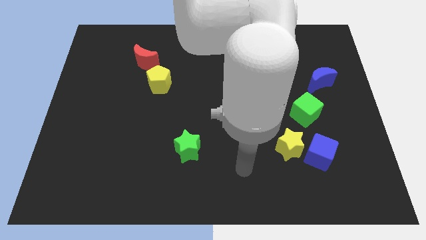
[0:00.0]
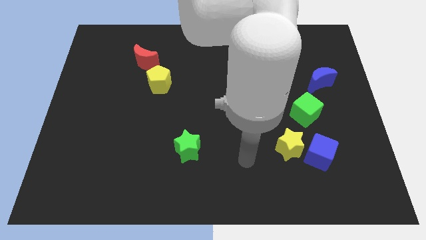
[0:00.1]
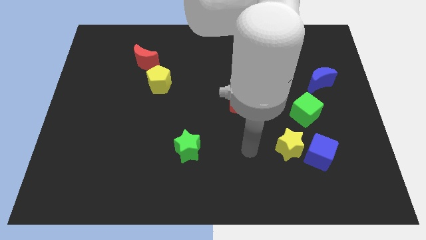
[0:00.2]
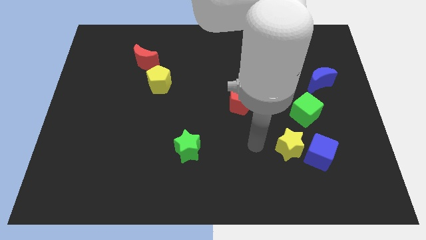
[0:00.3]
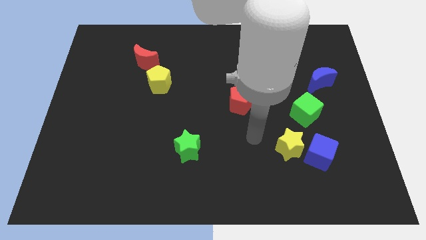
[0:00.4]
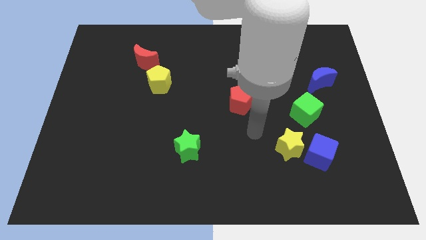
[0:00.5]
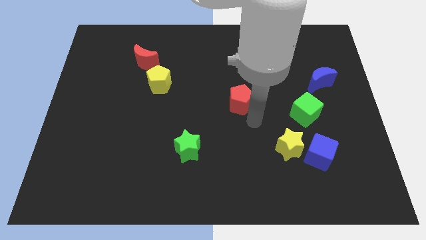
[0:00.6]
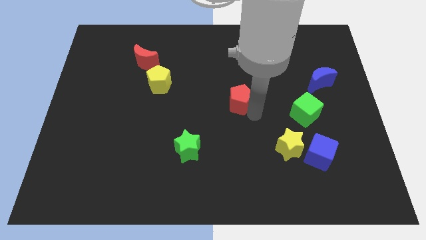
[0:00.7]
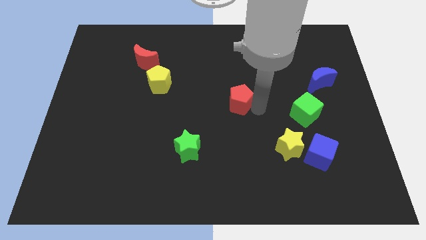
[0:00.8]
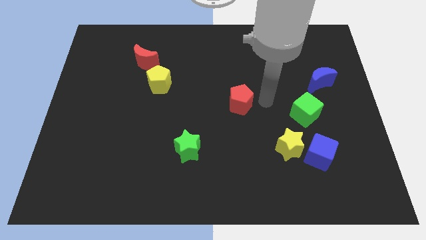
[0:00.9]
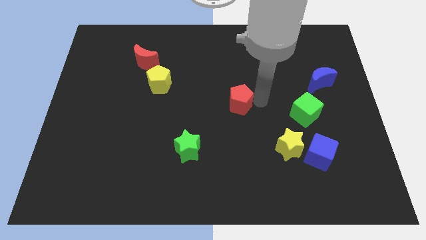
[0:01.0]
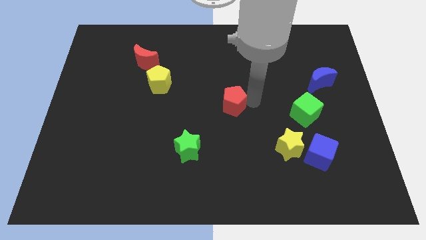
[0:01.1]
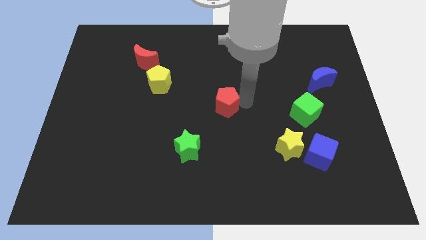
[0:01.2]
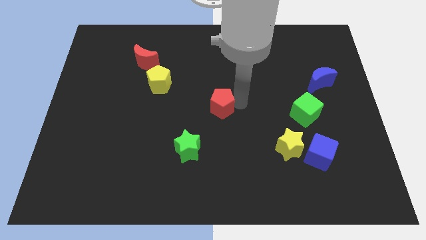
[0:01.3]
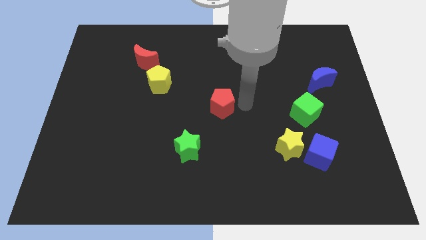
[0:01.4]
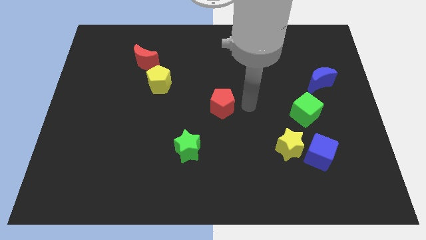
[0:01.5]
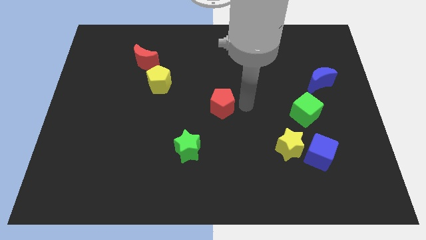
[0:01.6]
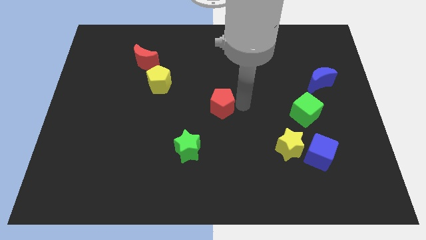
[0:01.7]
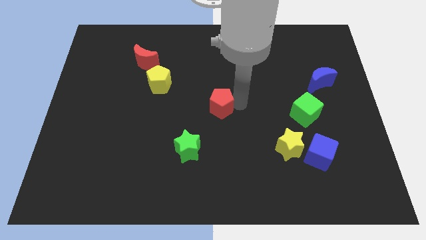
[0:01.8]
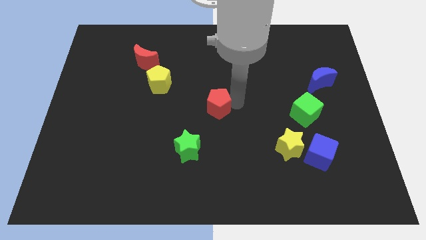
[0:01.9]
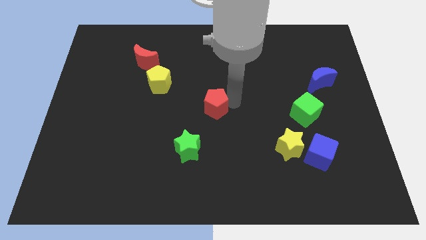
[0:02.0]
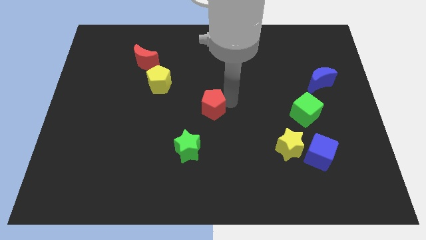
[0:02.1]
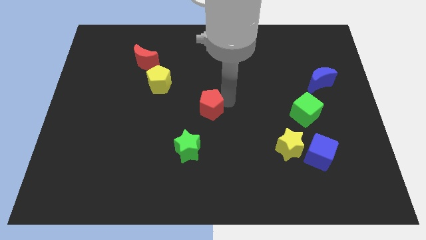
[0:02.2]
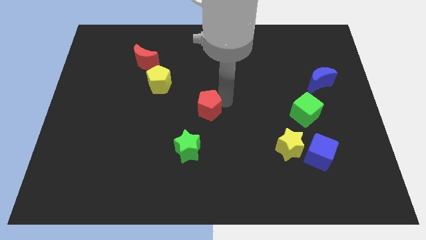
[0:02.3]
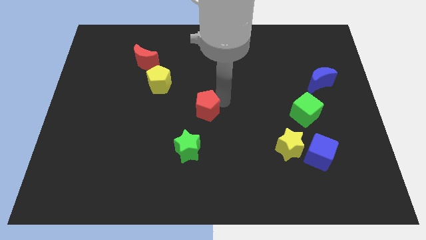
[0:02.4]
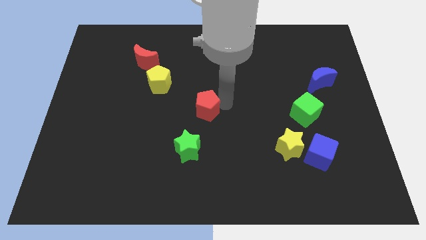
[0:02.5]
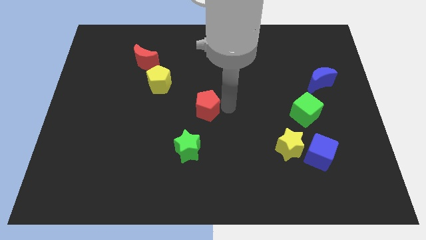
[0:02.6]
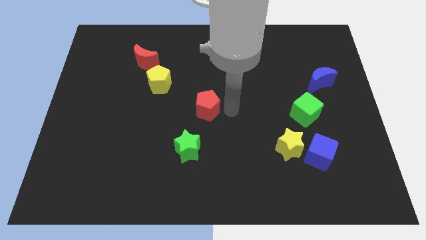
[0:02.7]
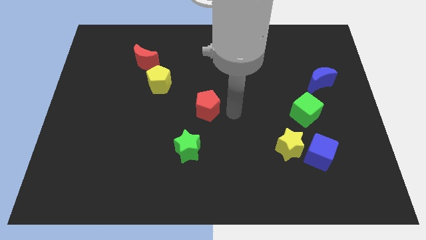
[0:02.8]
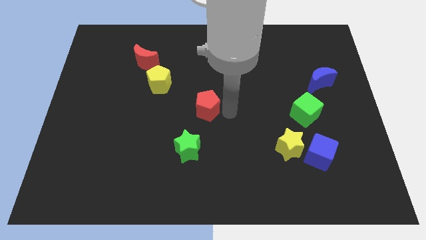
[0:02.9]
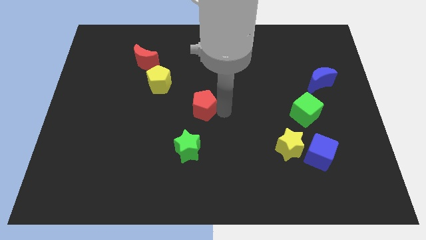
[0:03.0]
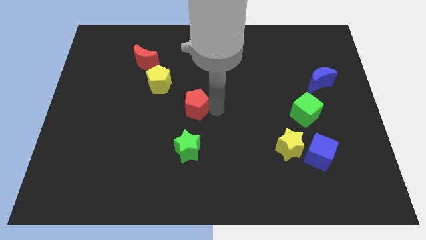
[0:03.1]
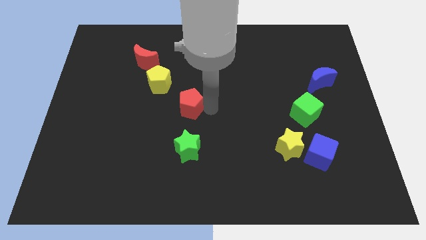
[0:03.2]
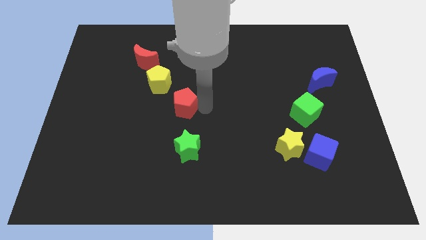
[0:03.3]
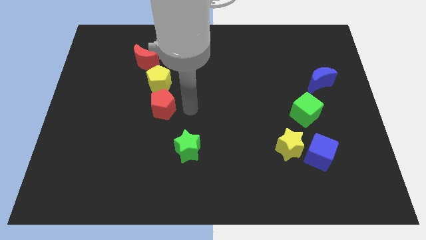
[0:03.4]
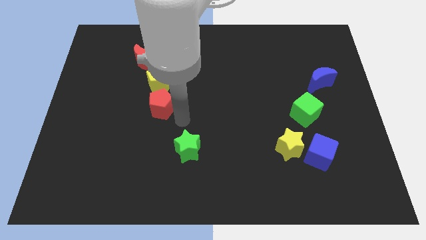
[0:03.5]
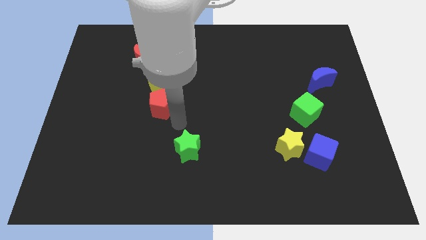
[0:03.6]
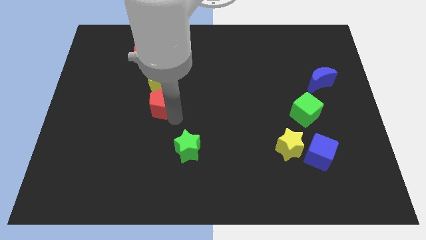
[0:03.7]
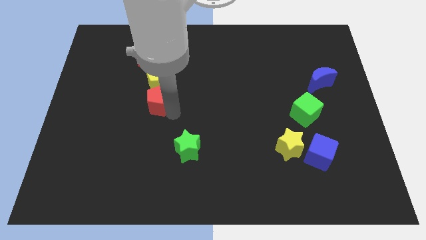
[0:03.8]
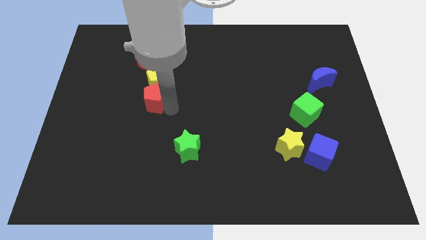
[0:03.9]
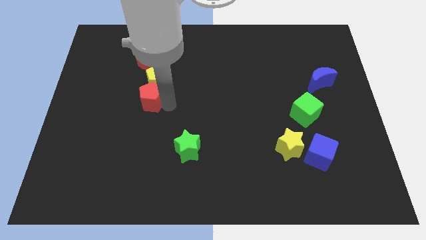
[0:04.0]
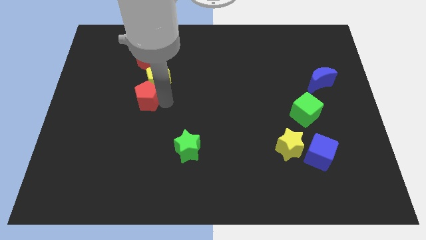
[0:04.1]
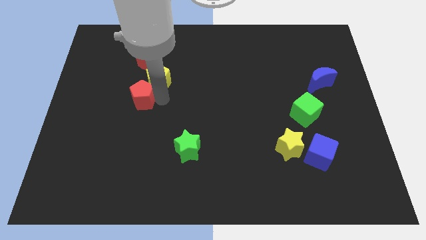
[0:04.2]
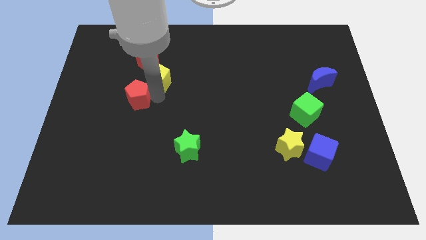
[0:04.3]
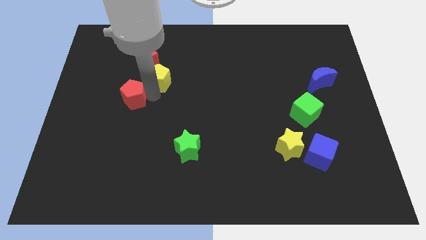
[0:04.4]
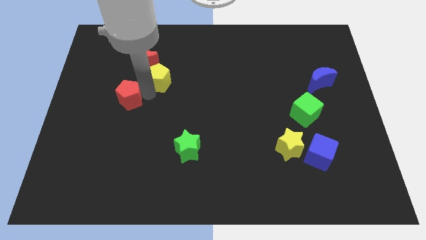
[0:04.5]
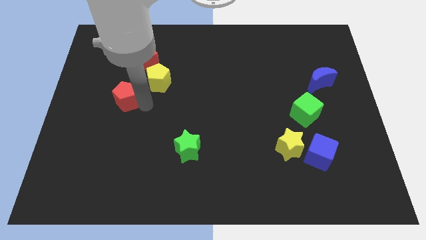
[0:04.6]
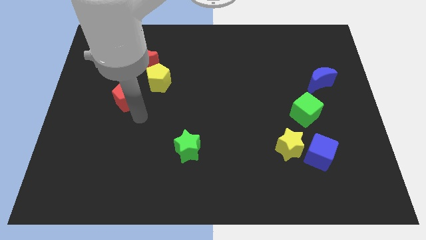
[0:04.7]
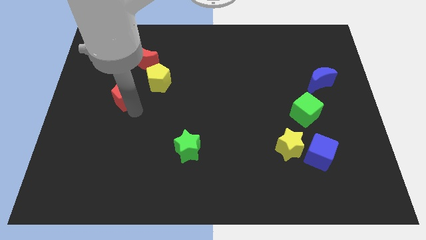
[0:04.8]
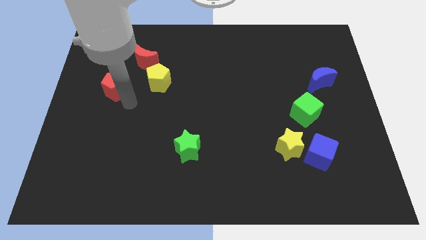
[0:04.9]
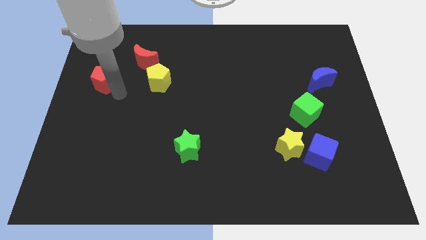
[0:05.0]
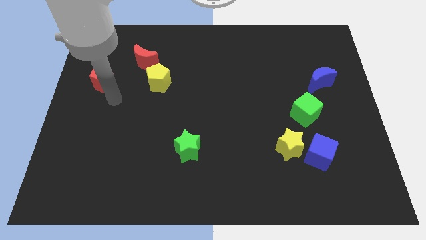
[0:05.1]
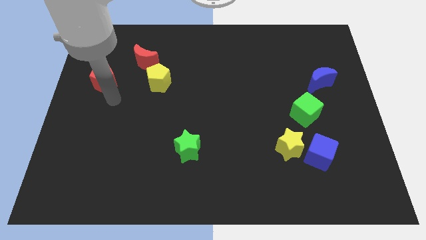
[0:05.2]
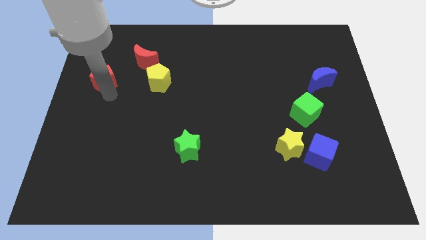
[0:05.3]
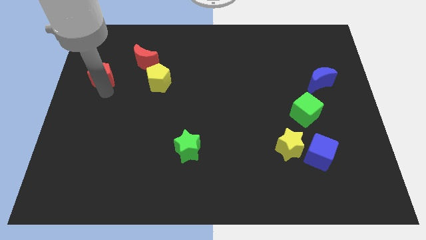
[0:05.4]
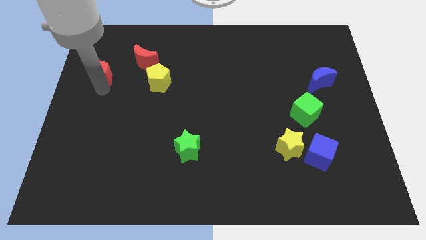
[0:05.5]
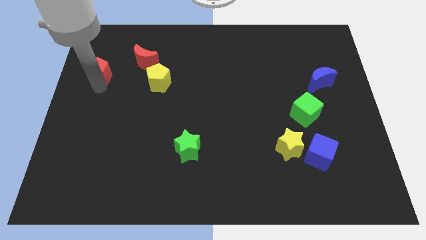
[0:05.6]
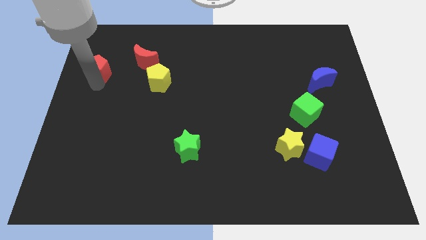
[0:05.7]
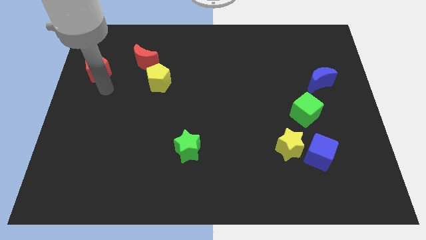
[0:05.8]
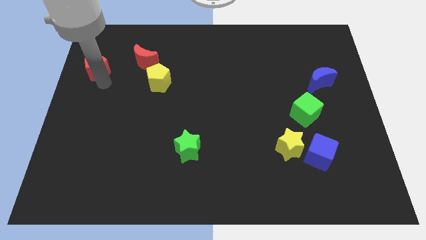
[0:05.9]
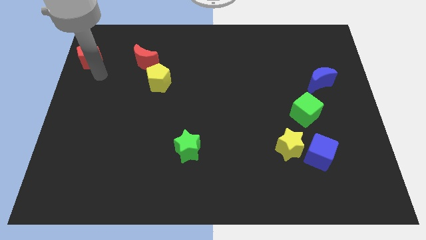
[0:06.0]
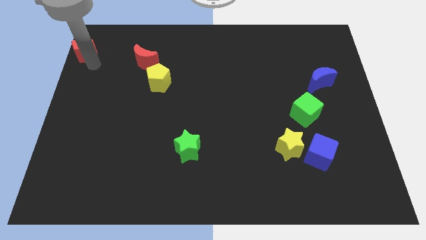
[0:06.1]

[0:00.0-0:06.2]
move the red pentagon to the top left

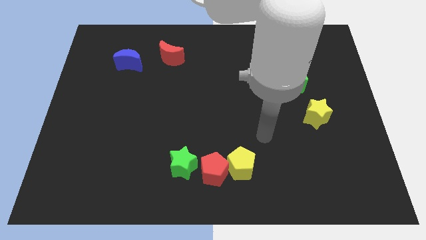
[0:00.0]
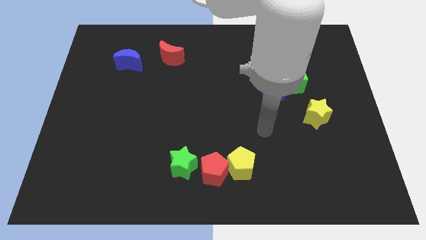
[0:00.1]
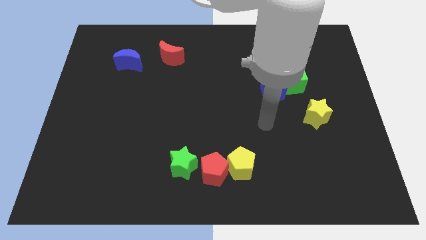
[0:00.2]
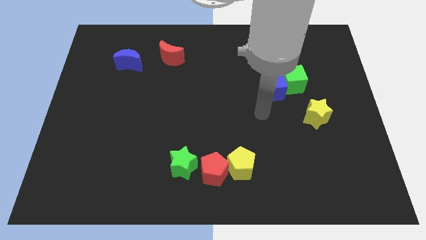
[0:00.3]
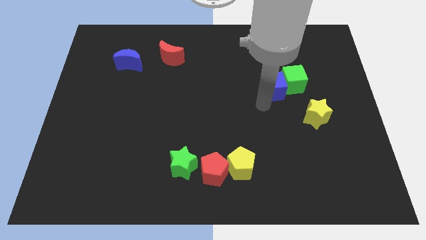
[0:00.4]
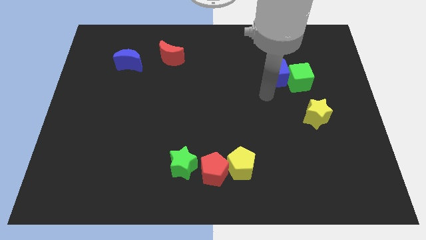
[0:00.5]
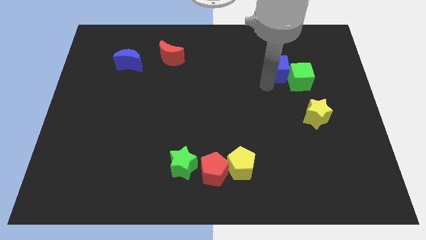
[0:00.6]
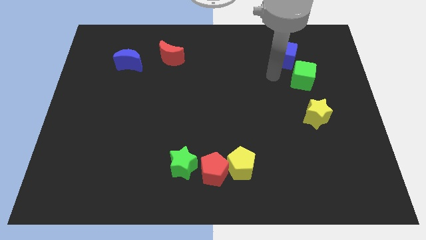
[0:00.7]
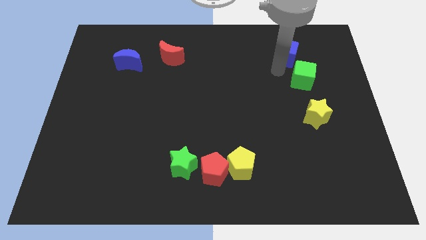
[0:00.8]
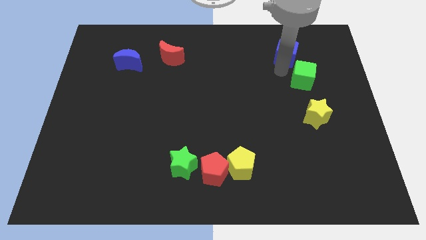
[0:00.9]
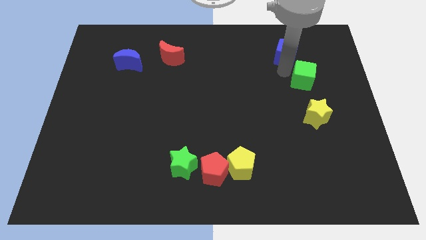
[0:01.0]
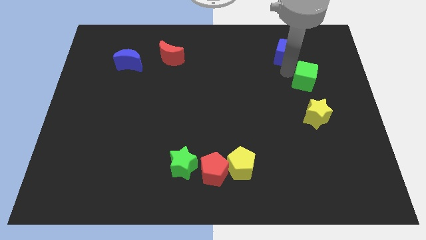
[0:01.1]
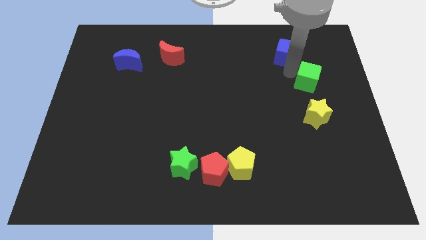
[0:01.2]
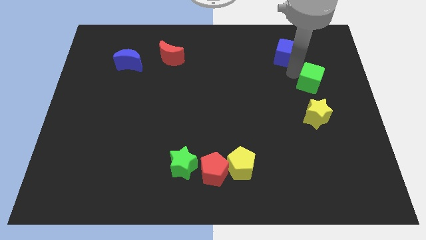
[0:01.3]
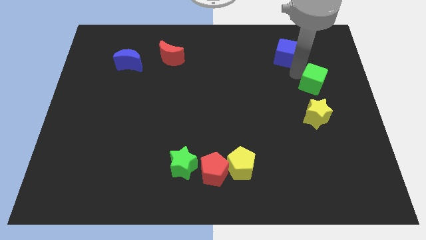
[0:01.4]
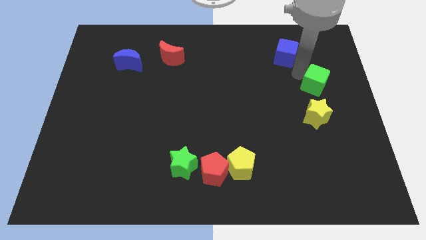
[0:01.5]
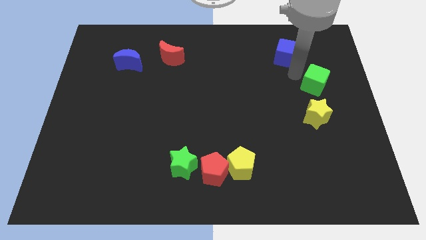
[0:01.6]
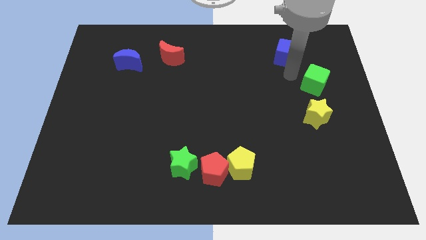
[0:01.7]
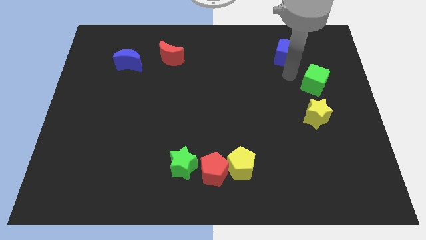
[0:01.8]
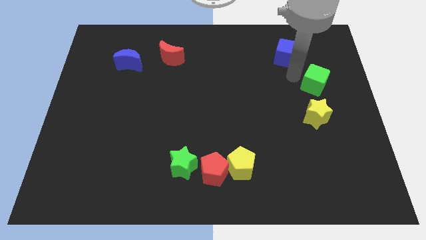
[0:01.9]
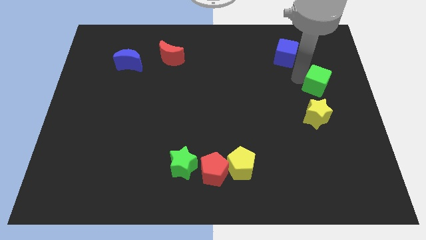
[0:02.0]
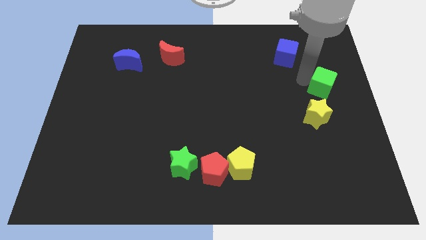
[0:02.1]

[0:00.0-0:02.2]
move the green cube to the right side of the board
